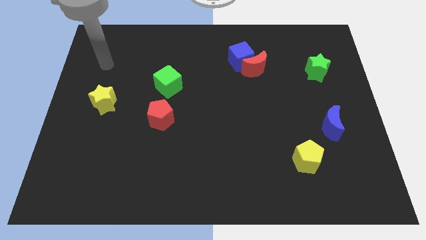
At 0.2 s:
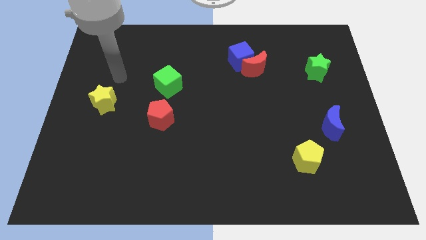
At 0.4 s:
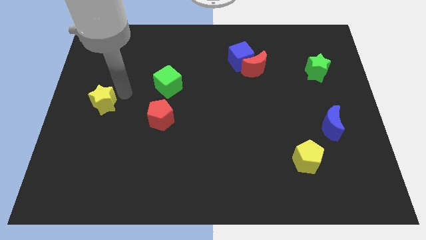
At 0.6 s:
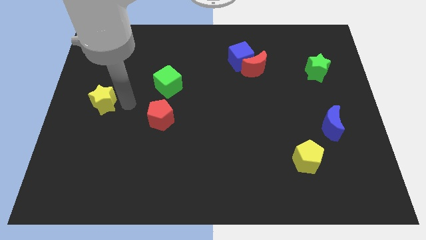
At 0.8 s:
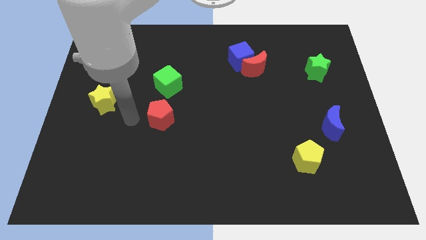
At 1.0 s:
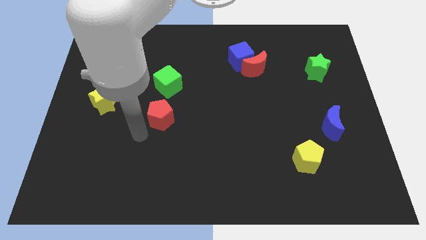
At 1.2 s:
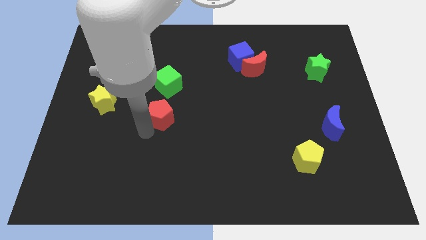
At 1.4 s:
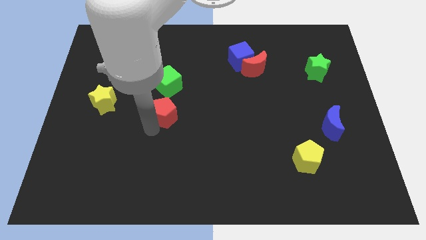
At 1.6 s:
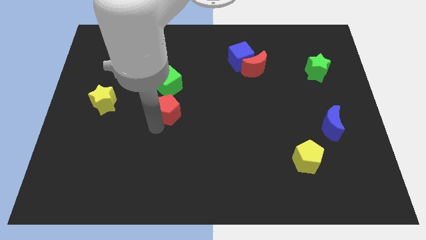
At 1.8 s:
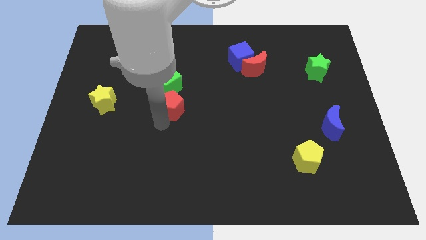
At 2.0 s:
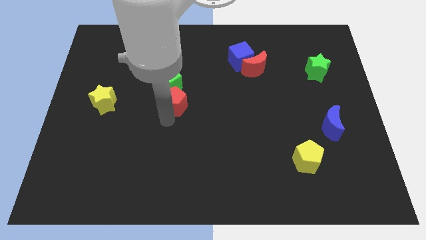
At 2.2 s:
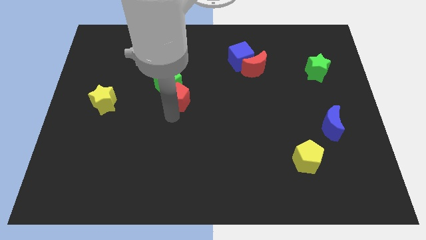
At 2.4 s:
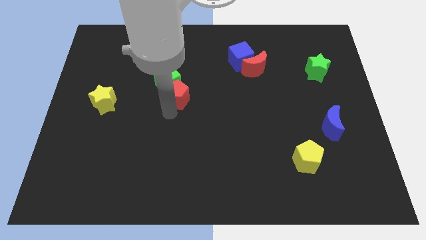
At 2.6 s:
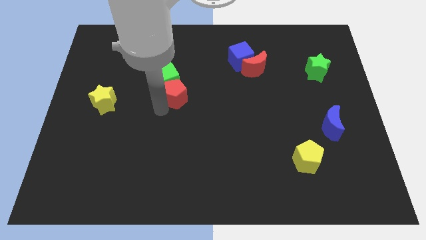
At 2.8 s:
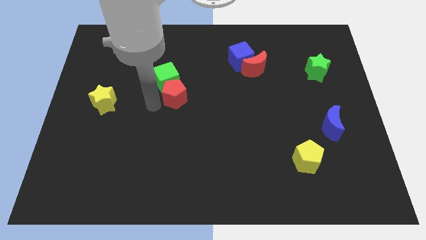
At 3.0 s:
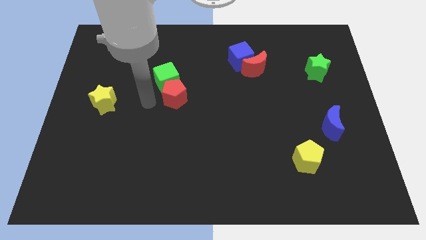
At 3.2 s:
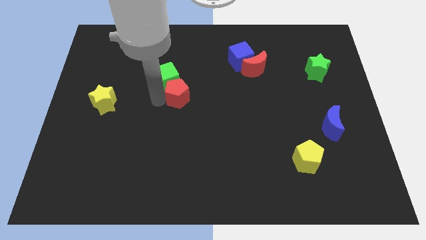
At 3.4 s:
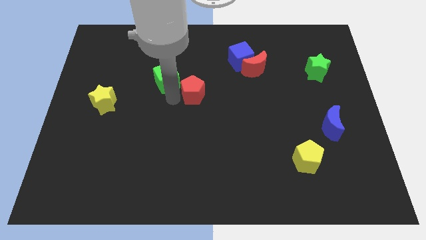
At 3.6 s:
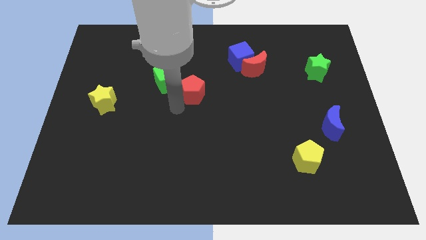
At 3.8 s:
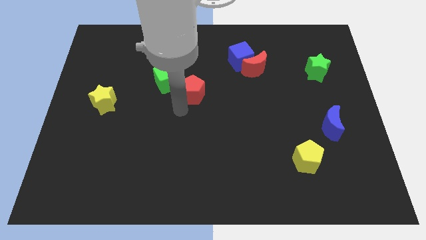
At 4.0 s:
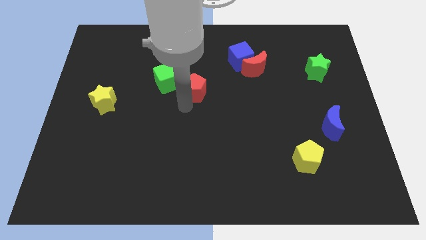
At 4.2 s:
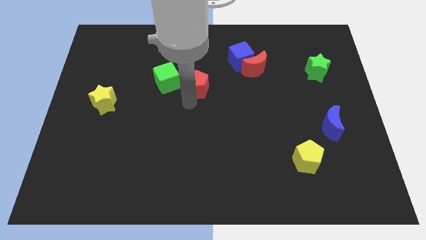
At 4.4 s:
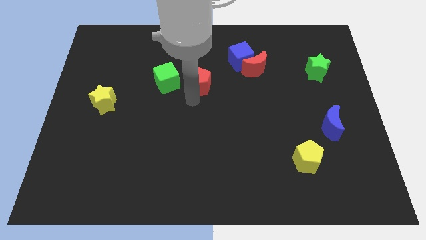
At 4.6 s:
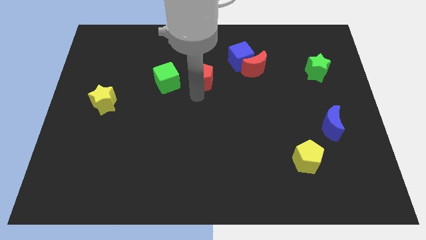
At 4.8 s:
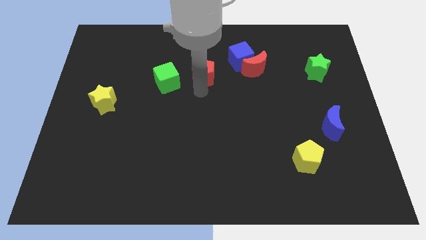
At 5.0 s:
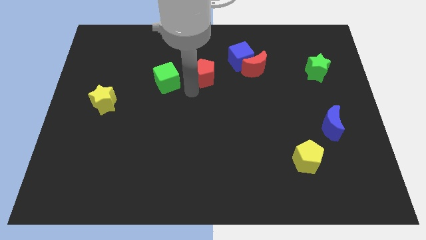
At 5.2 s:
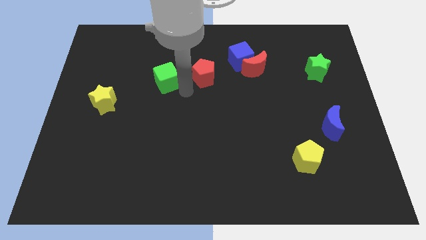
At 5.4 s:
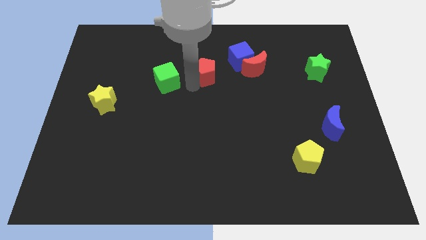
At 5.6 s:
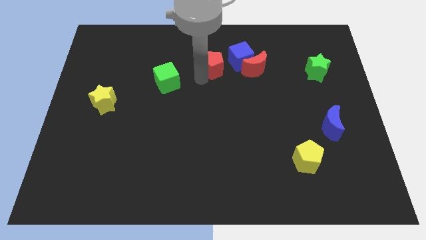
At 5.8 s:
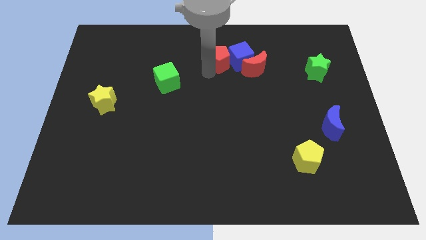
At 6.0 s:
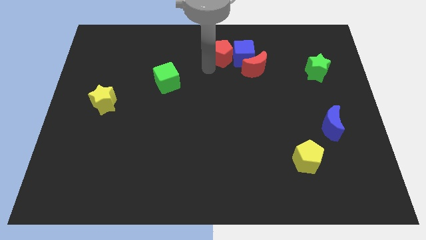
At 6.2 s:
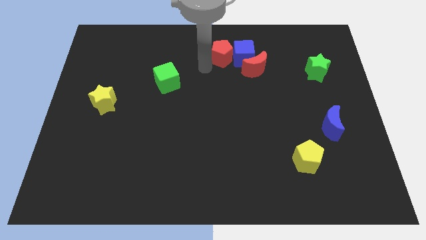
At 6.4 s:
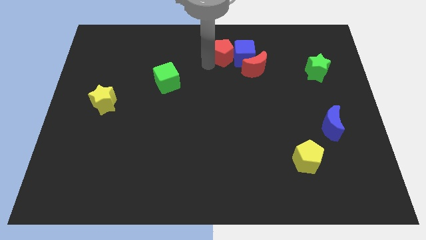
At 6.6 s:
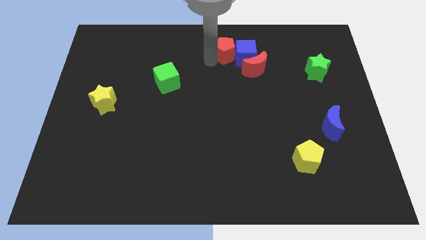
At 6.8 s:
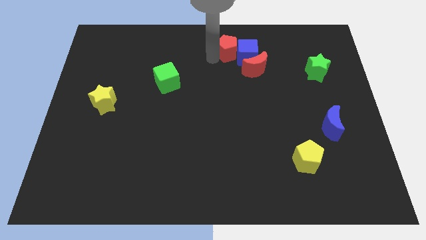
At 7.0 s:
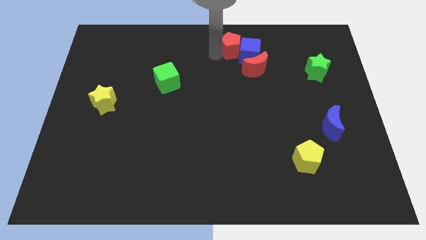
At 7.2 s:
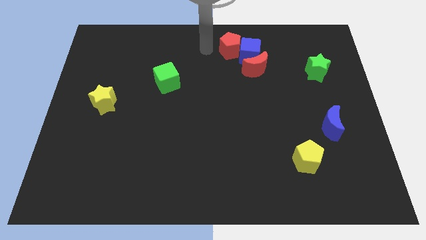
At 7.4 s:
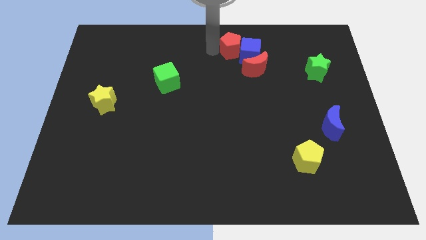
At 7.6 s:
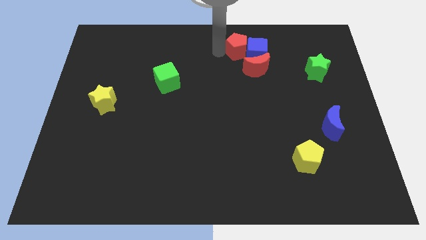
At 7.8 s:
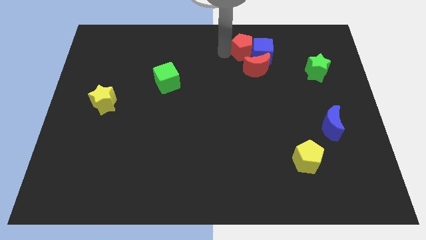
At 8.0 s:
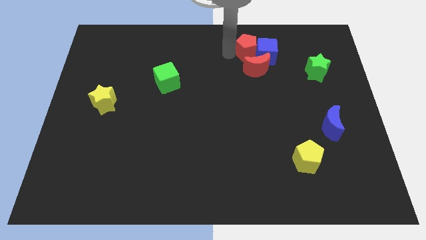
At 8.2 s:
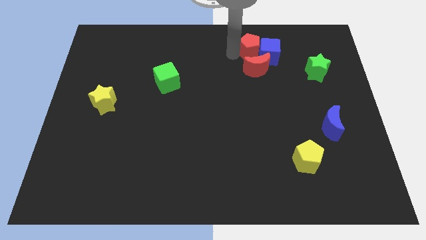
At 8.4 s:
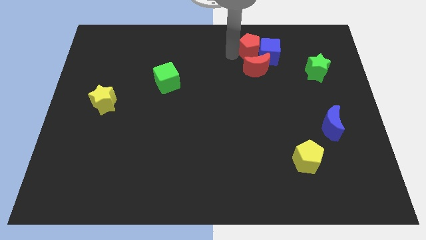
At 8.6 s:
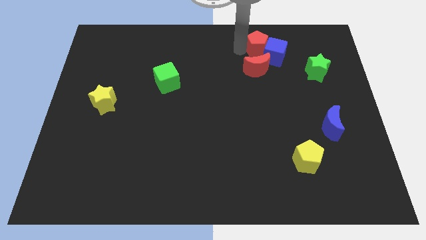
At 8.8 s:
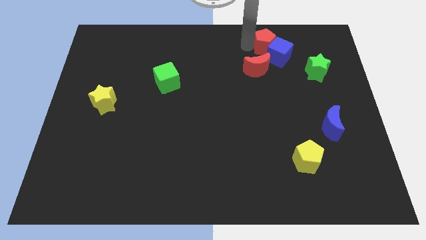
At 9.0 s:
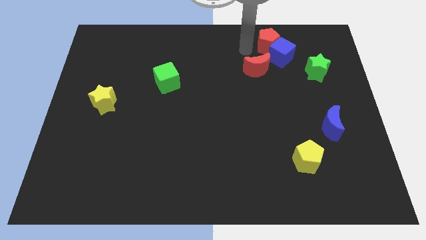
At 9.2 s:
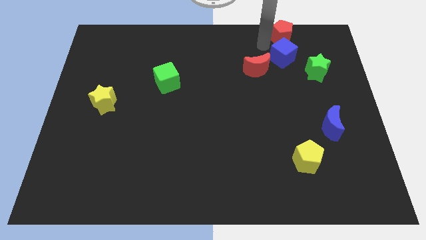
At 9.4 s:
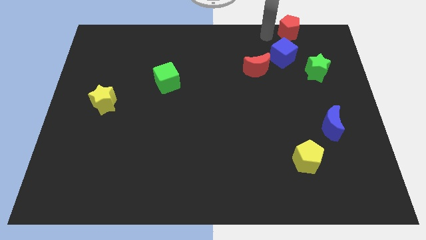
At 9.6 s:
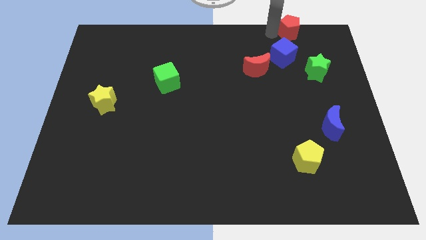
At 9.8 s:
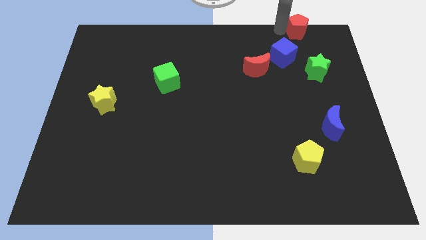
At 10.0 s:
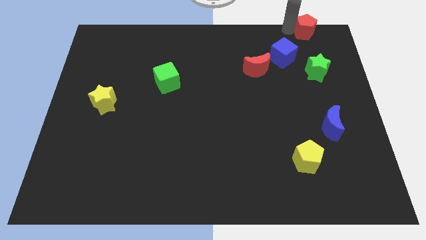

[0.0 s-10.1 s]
put the red pentagon to the top right corner

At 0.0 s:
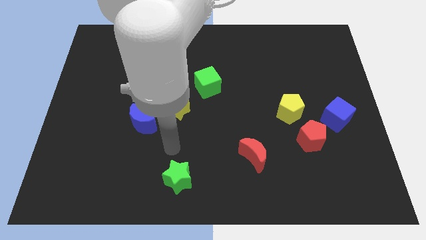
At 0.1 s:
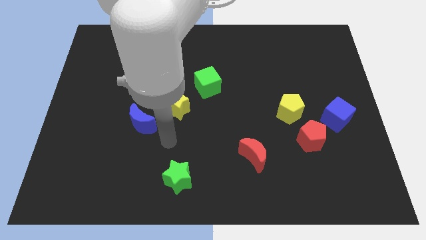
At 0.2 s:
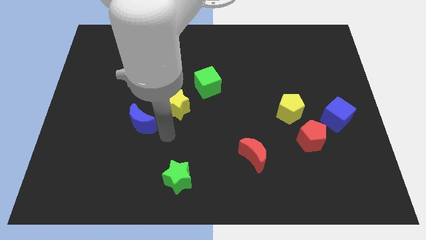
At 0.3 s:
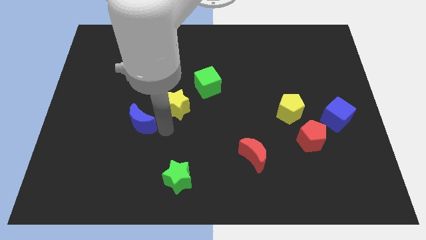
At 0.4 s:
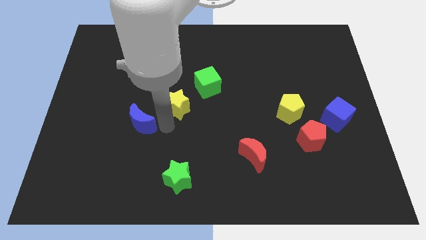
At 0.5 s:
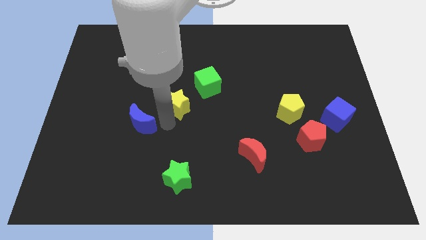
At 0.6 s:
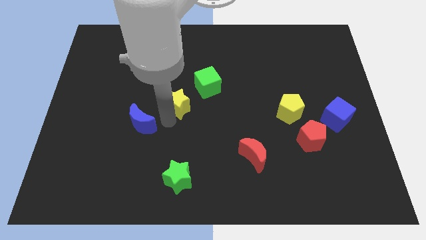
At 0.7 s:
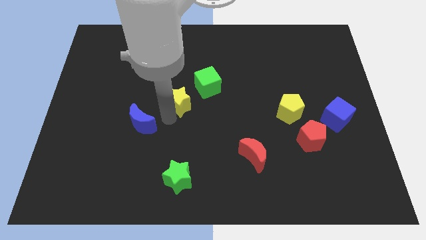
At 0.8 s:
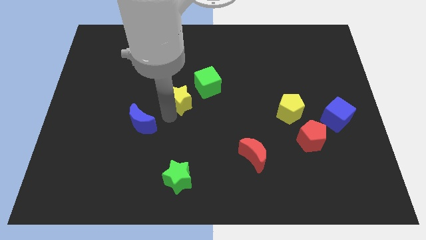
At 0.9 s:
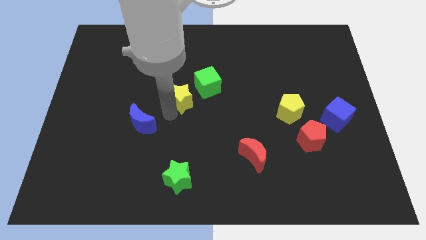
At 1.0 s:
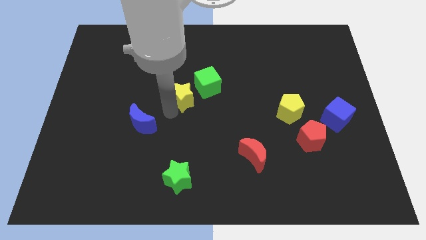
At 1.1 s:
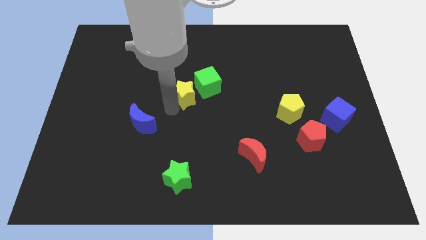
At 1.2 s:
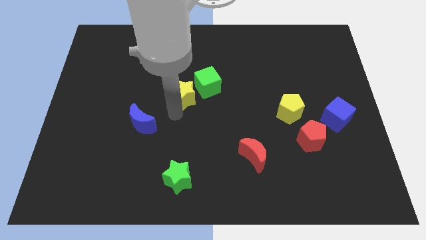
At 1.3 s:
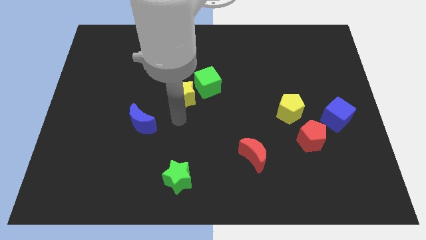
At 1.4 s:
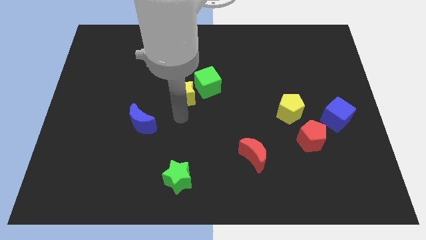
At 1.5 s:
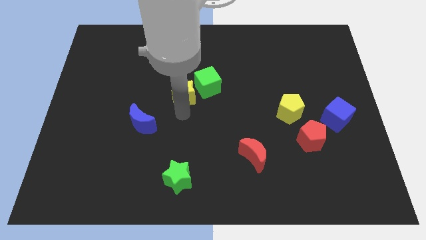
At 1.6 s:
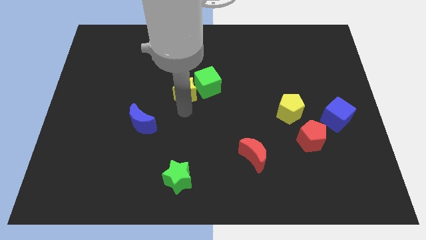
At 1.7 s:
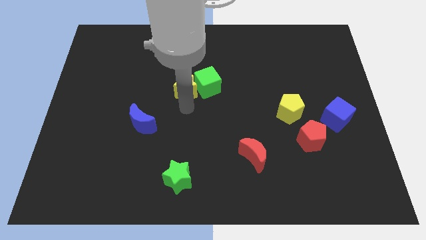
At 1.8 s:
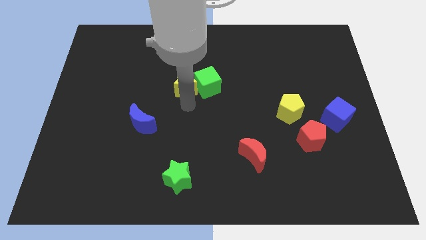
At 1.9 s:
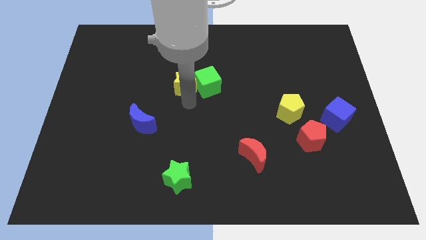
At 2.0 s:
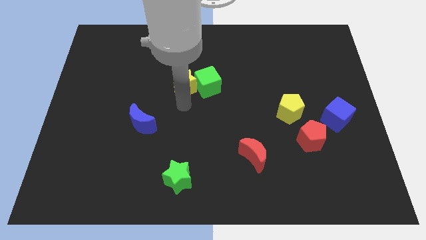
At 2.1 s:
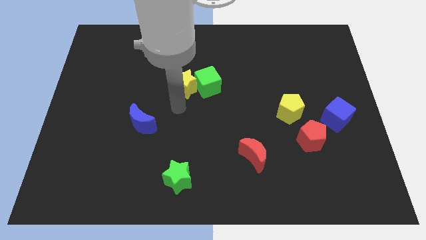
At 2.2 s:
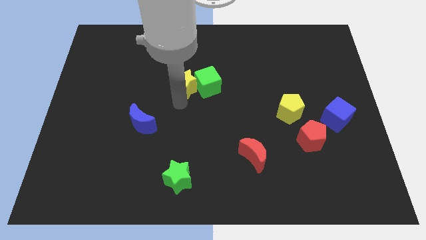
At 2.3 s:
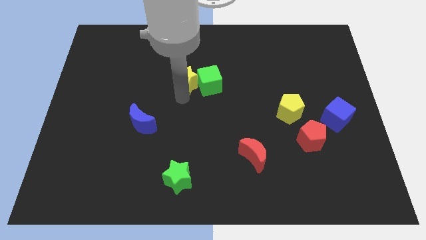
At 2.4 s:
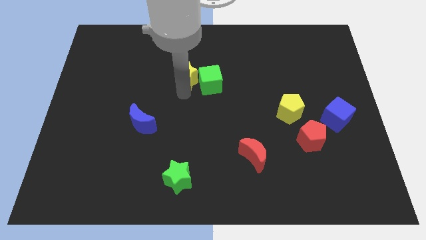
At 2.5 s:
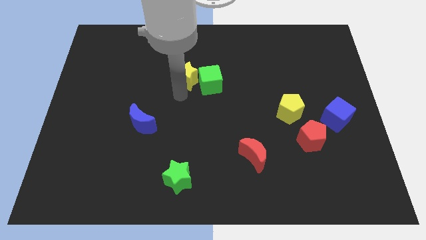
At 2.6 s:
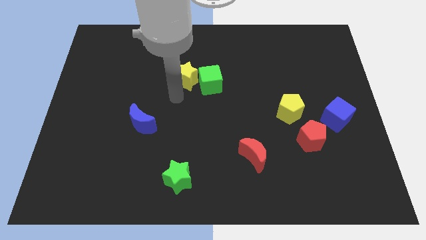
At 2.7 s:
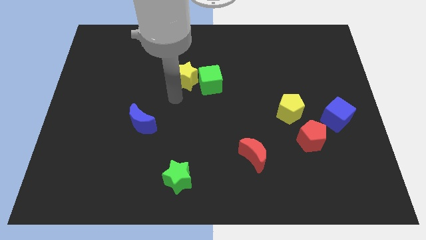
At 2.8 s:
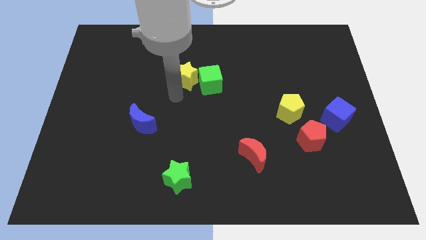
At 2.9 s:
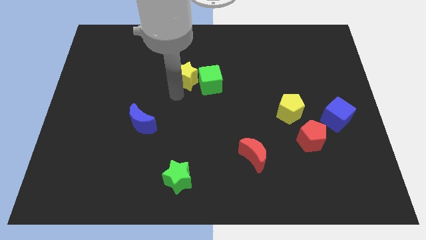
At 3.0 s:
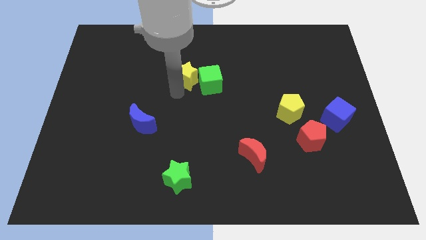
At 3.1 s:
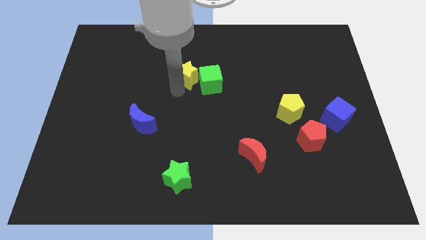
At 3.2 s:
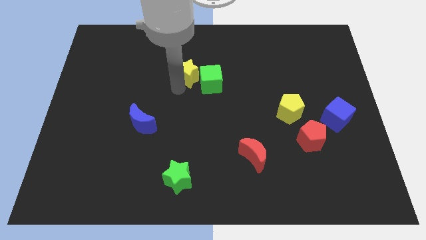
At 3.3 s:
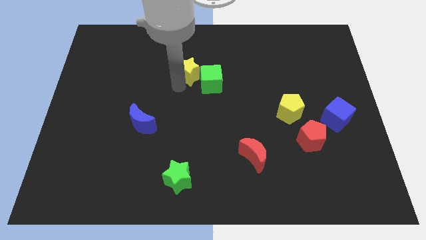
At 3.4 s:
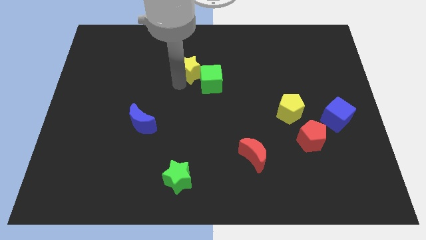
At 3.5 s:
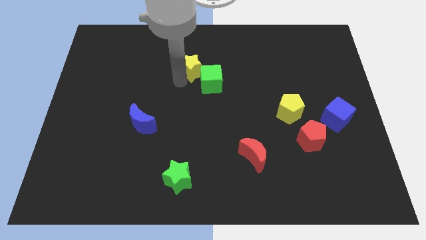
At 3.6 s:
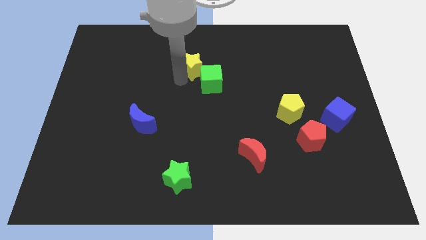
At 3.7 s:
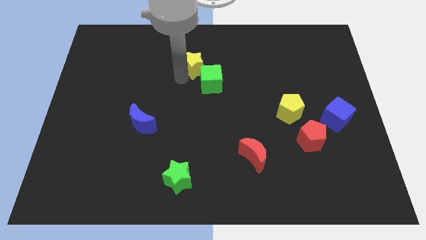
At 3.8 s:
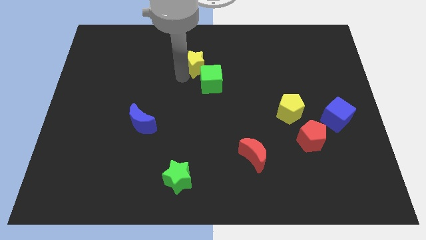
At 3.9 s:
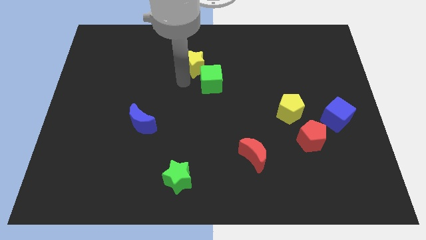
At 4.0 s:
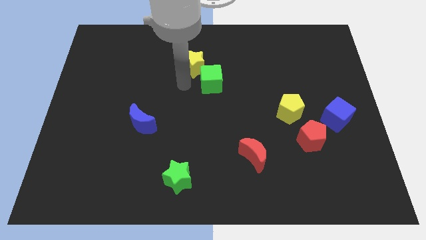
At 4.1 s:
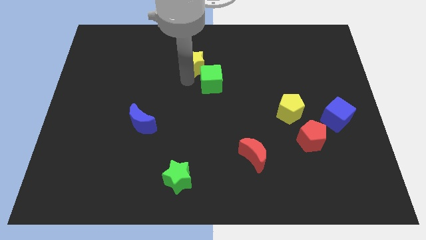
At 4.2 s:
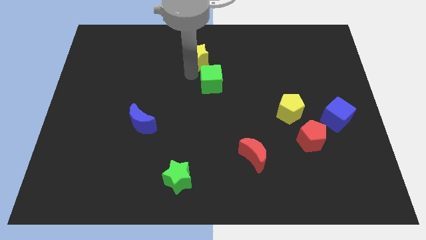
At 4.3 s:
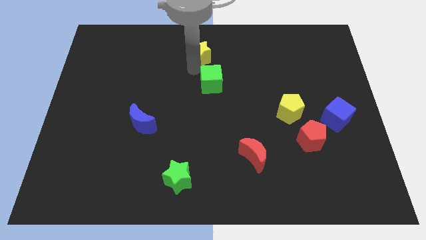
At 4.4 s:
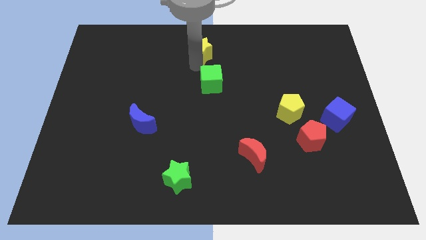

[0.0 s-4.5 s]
slide the yellow star to the top
